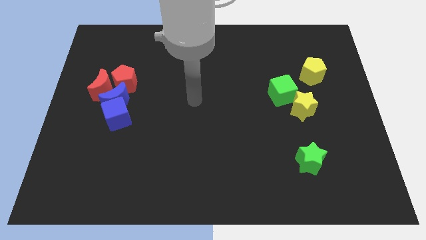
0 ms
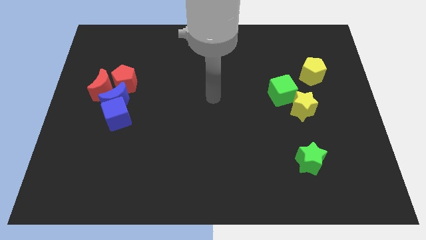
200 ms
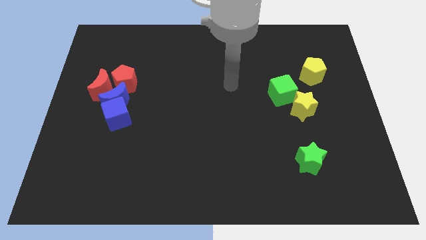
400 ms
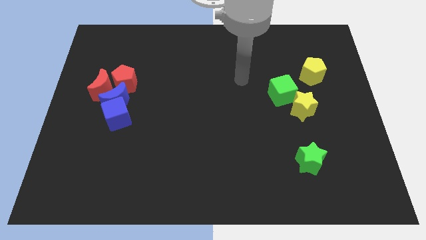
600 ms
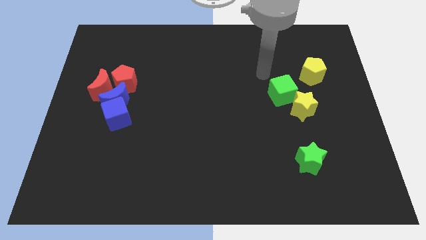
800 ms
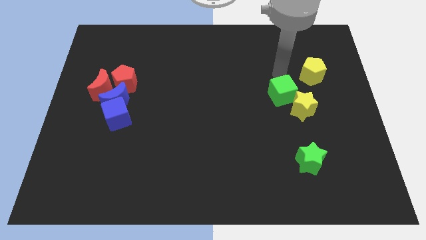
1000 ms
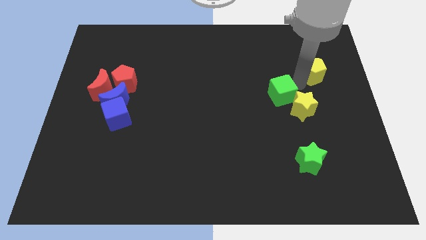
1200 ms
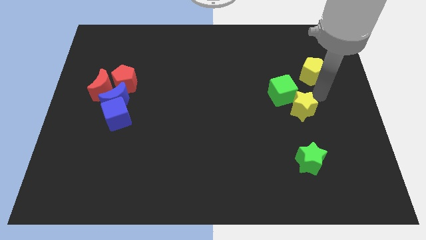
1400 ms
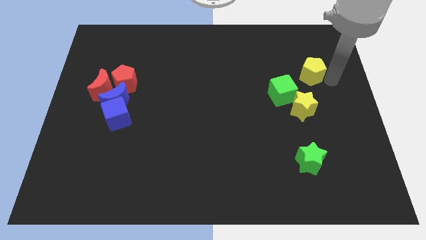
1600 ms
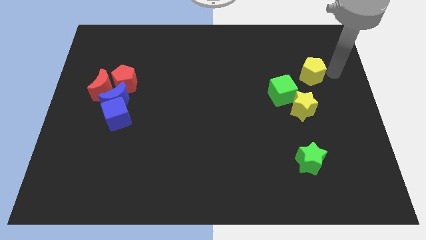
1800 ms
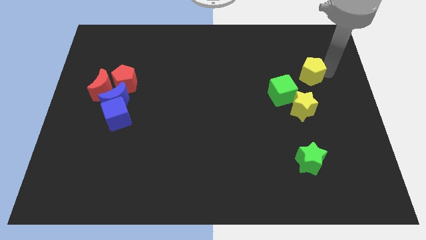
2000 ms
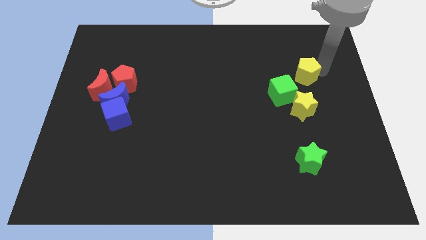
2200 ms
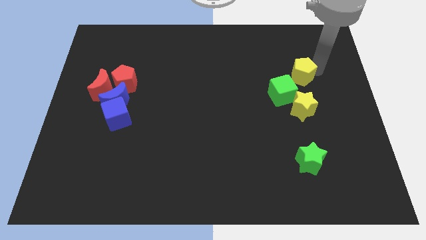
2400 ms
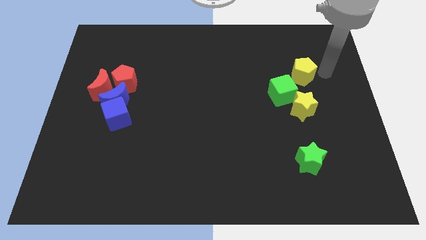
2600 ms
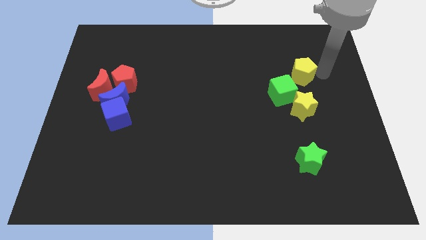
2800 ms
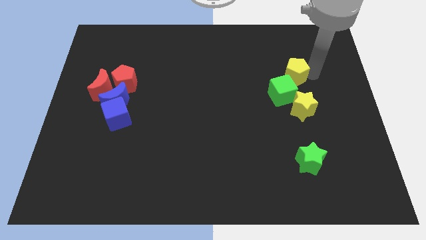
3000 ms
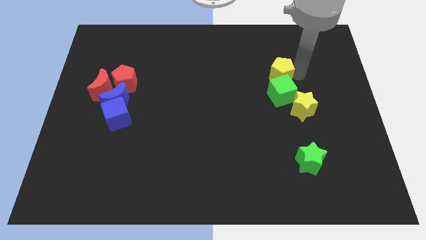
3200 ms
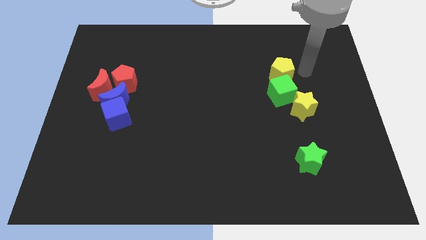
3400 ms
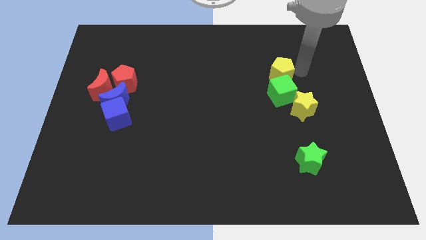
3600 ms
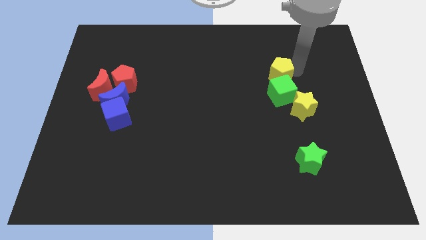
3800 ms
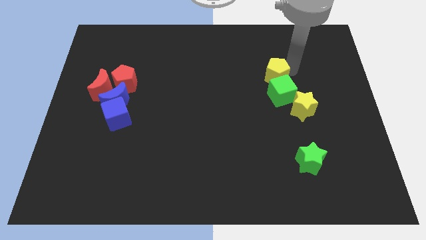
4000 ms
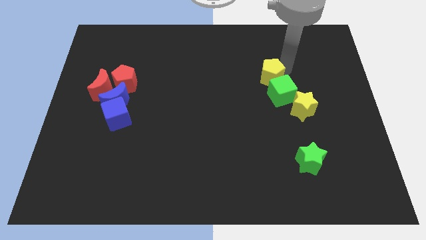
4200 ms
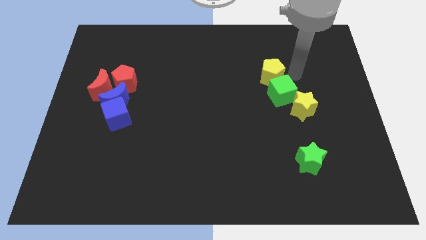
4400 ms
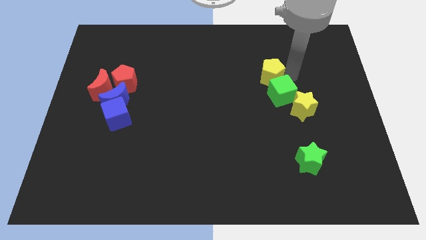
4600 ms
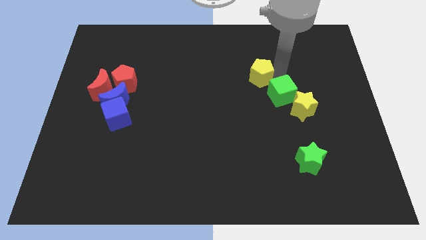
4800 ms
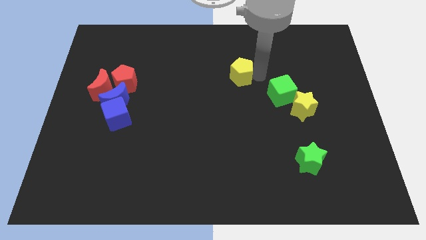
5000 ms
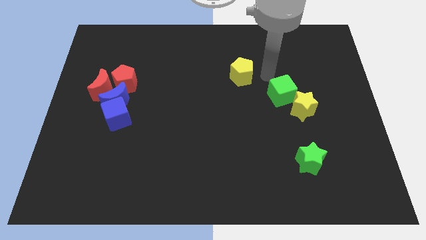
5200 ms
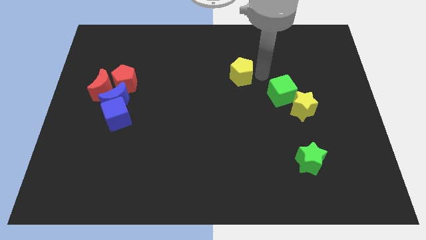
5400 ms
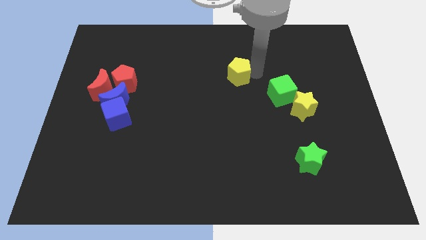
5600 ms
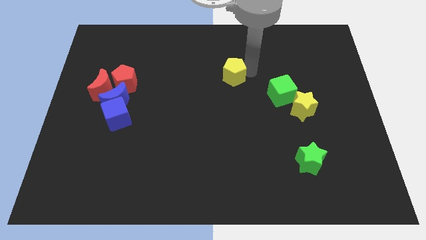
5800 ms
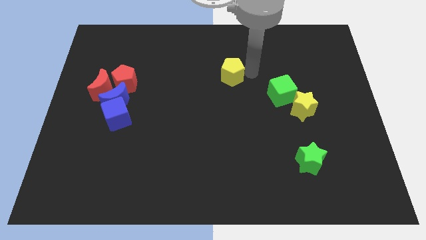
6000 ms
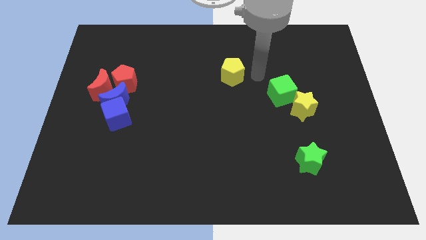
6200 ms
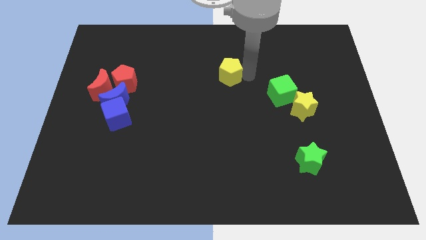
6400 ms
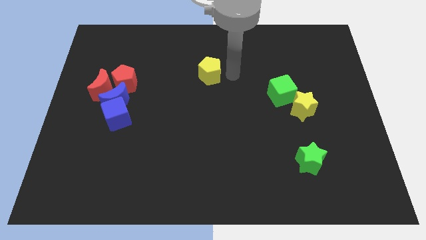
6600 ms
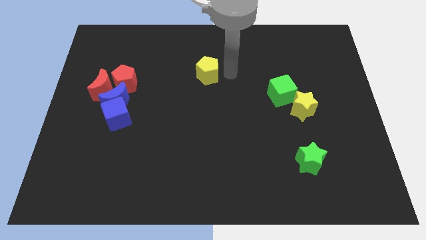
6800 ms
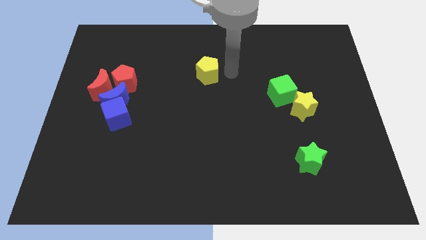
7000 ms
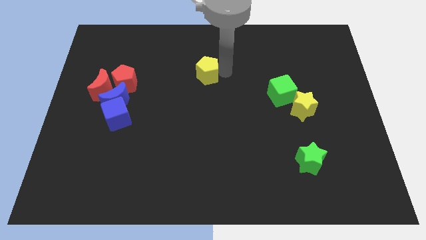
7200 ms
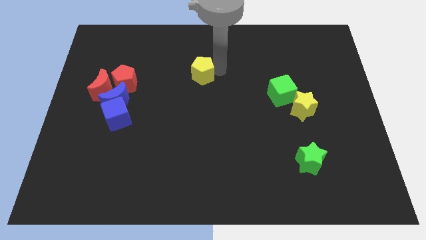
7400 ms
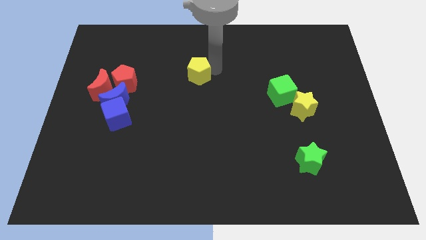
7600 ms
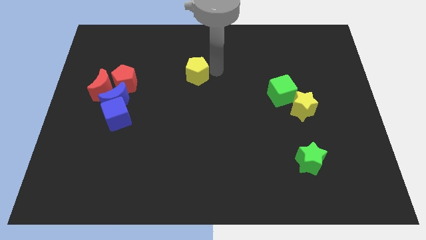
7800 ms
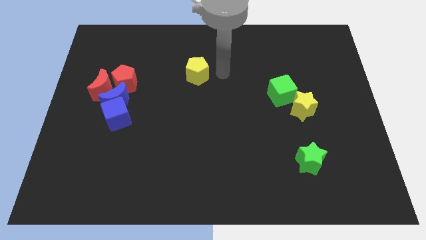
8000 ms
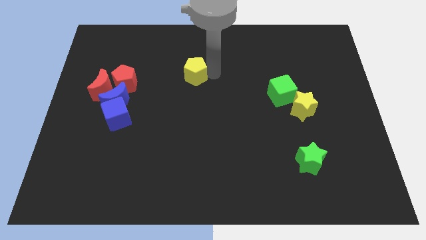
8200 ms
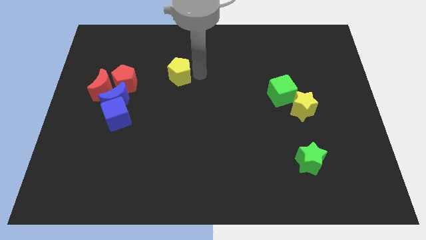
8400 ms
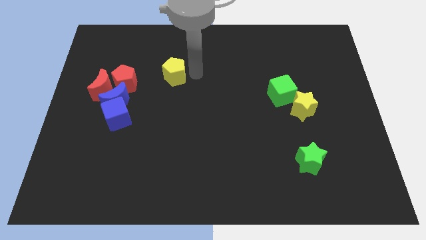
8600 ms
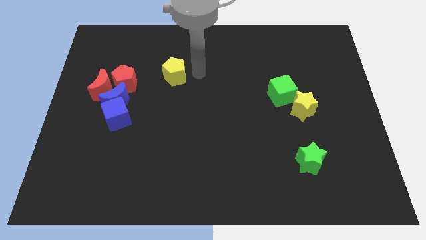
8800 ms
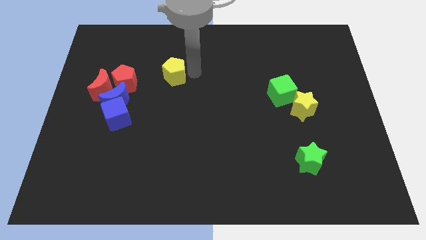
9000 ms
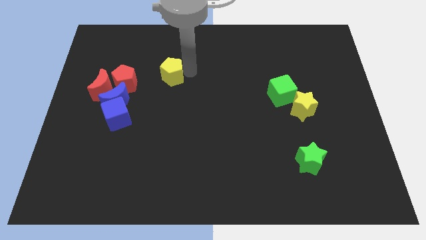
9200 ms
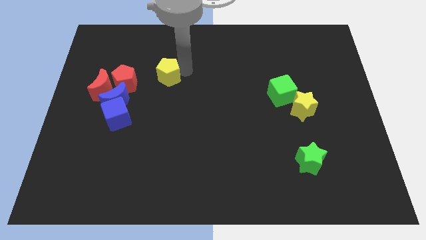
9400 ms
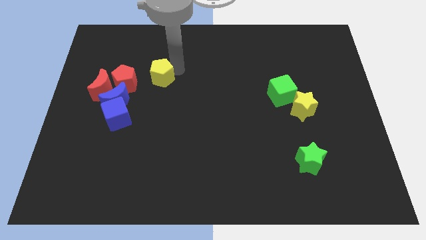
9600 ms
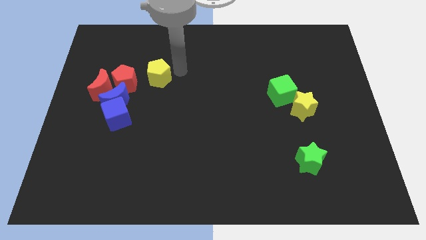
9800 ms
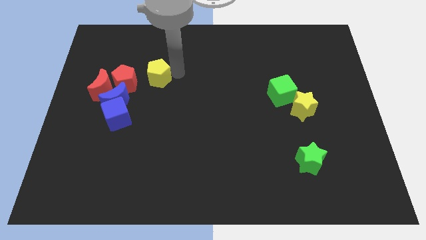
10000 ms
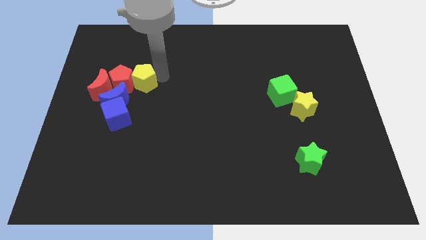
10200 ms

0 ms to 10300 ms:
put the yellow pentagon towards the red pentagon

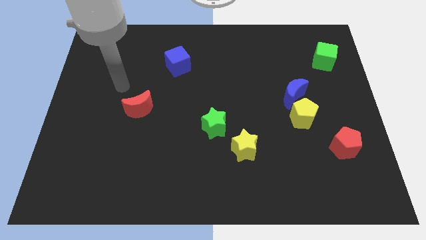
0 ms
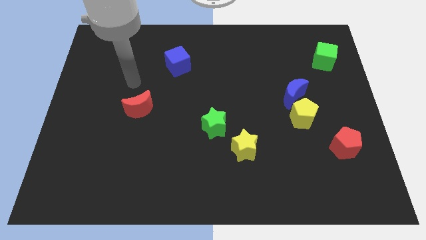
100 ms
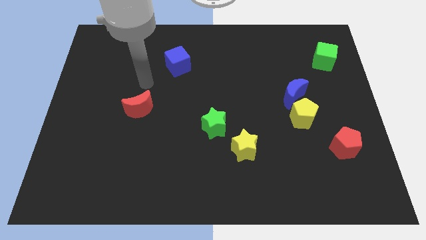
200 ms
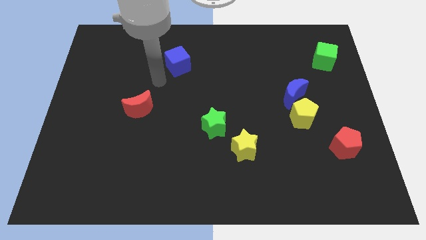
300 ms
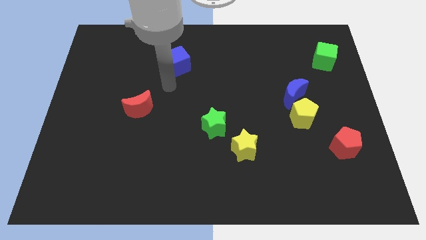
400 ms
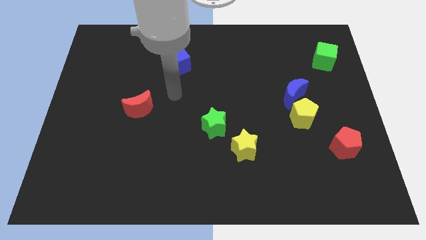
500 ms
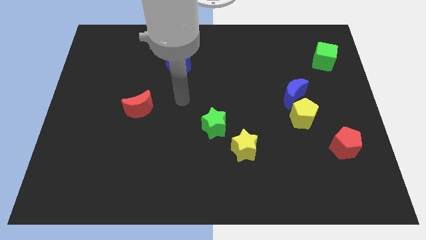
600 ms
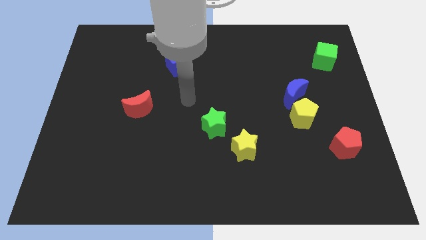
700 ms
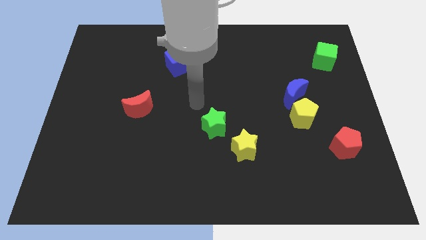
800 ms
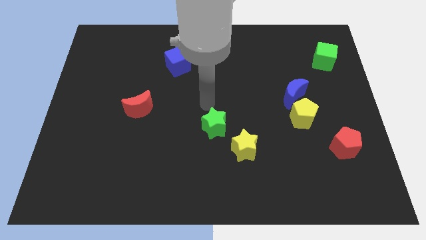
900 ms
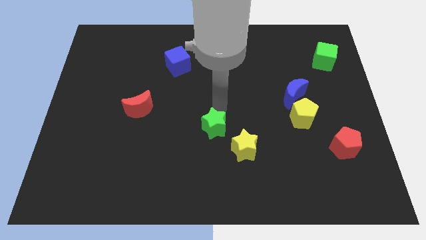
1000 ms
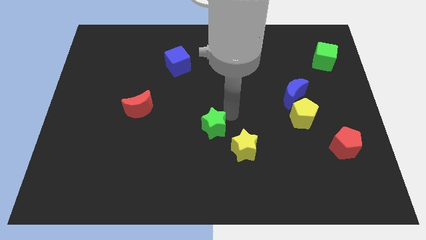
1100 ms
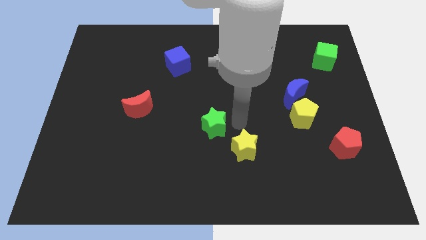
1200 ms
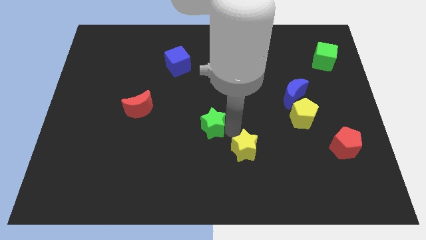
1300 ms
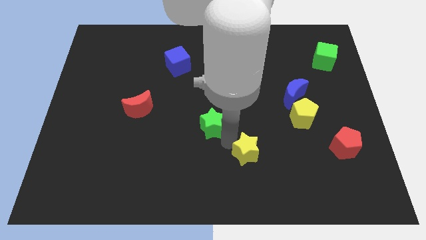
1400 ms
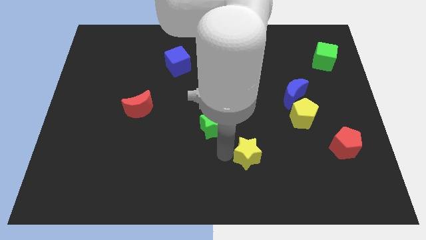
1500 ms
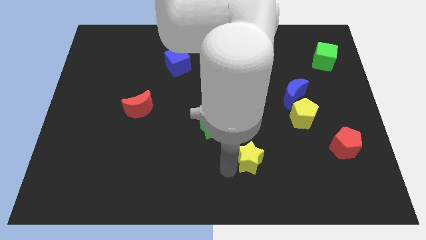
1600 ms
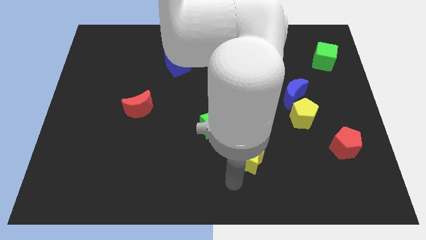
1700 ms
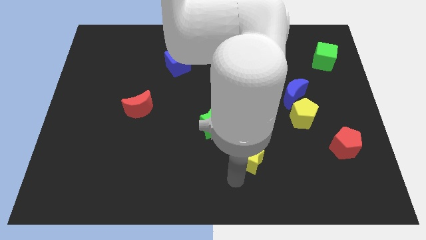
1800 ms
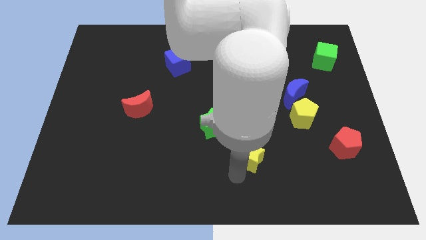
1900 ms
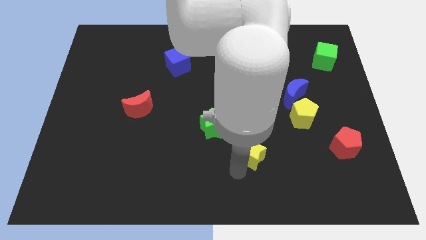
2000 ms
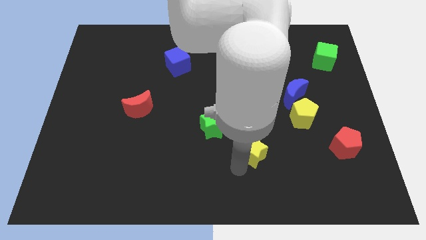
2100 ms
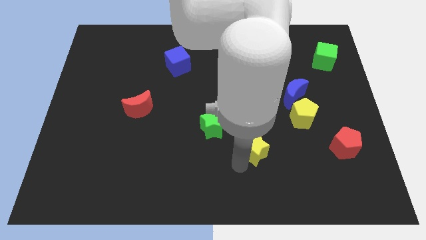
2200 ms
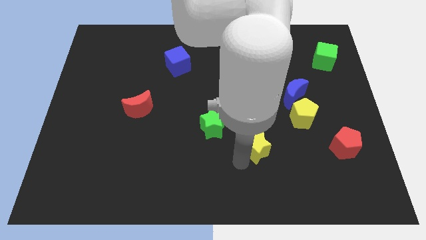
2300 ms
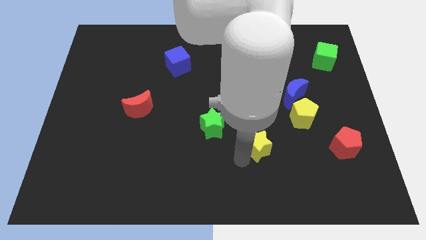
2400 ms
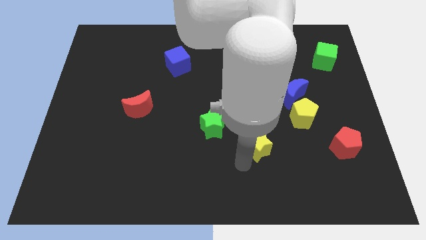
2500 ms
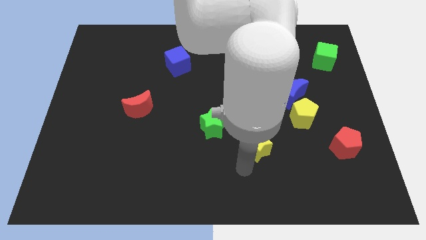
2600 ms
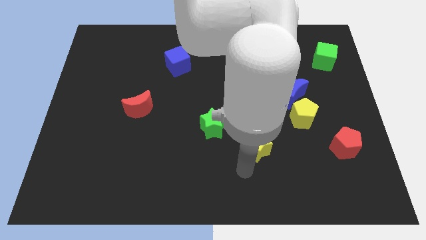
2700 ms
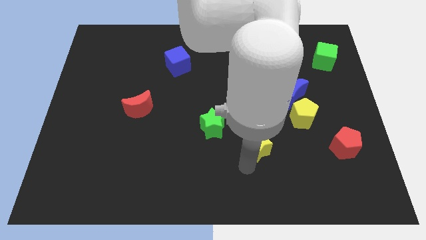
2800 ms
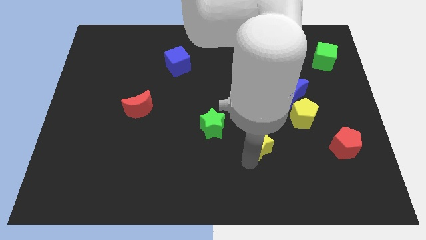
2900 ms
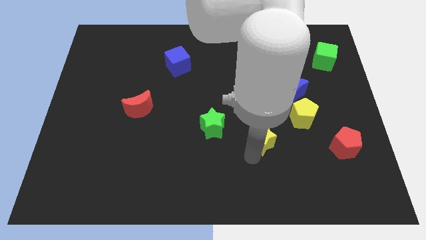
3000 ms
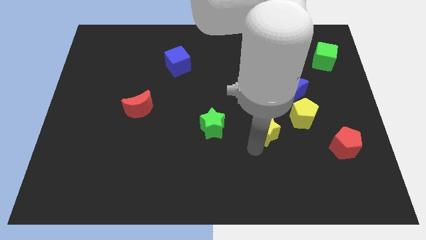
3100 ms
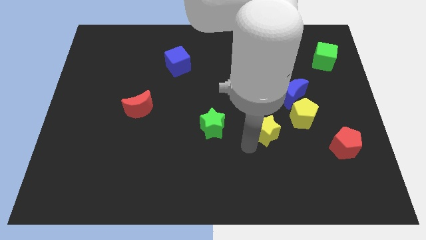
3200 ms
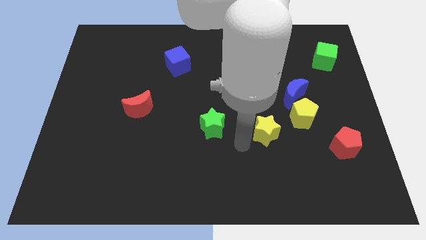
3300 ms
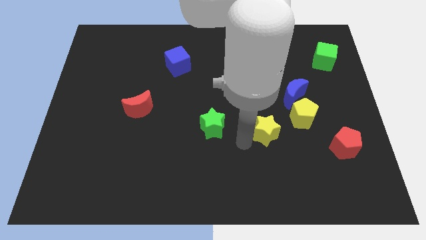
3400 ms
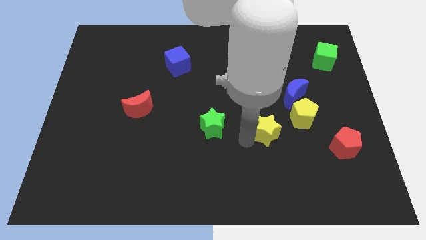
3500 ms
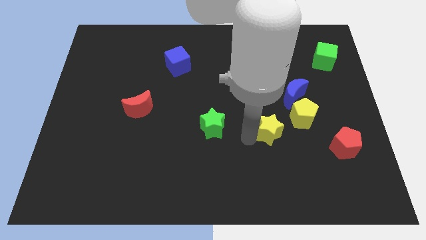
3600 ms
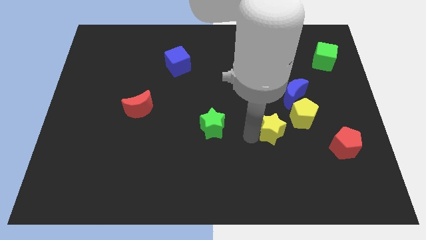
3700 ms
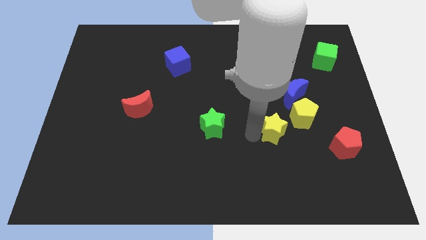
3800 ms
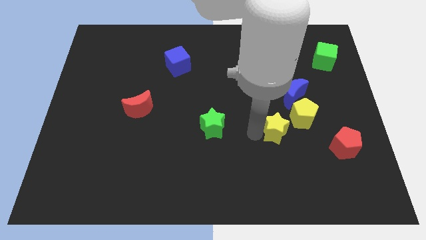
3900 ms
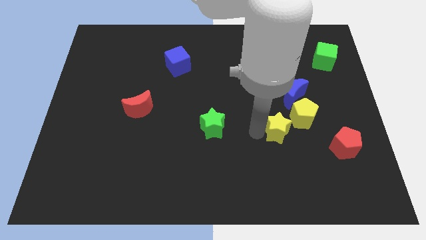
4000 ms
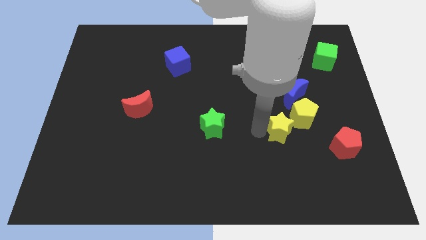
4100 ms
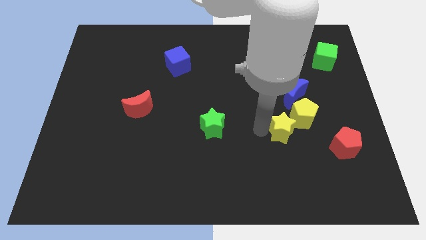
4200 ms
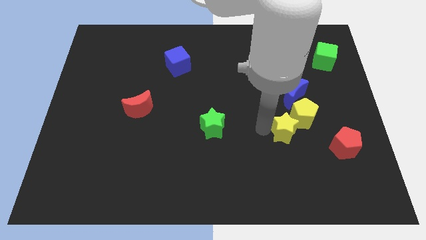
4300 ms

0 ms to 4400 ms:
put the yellow star to the yellow pentagon
